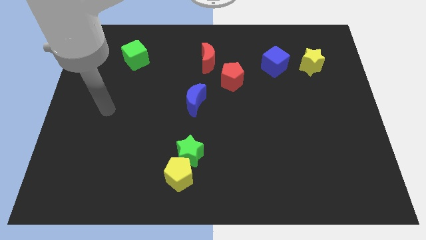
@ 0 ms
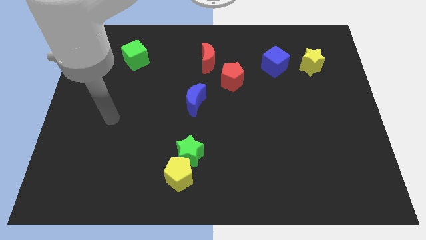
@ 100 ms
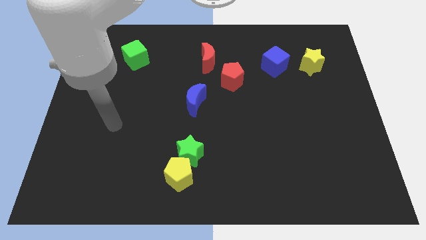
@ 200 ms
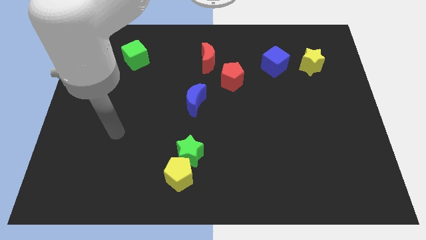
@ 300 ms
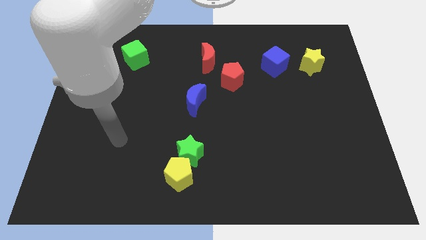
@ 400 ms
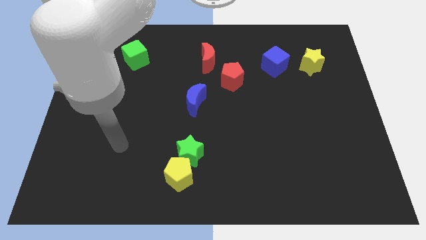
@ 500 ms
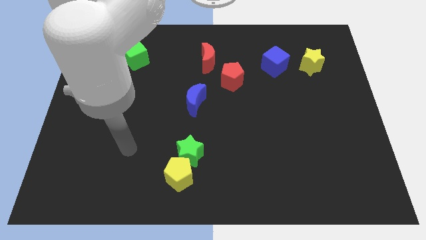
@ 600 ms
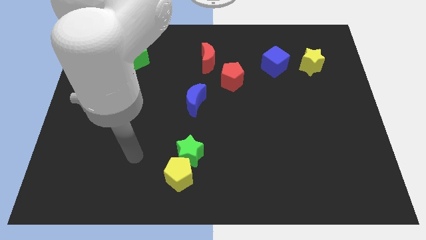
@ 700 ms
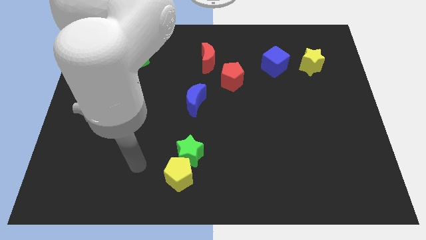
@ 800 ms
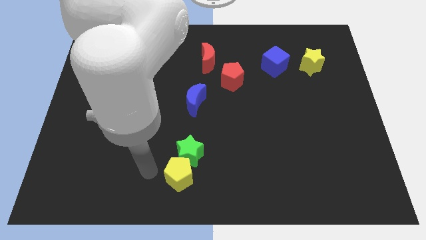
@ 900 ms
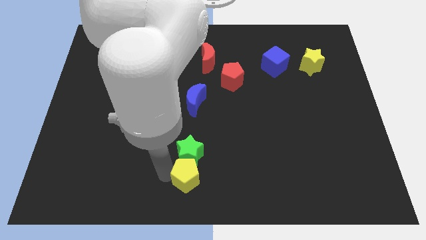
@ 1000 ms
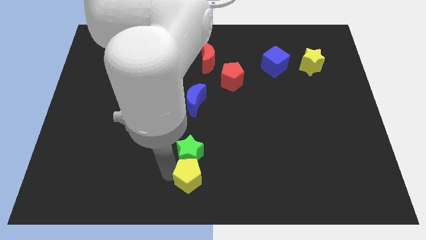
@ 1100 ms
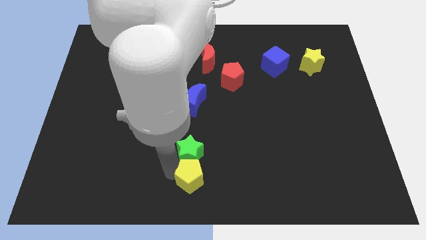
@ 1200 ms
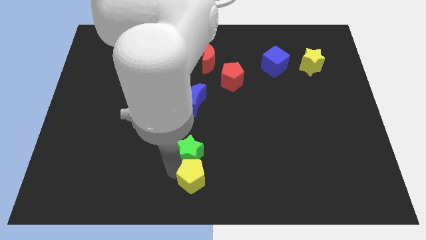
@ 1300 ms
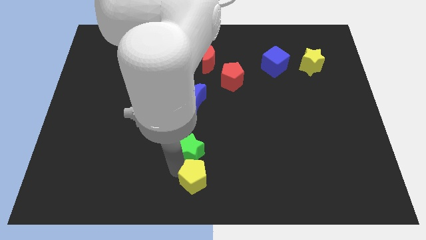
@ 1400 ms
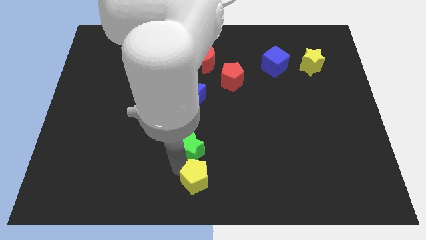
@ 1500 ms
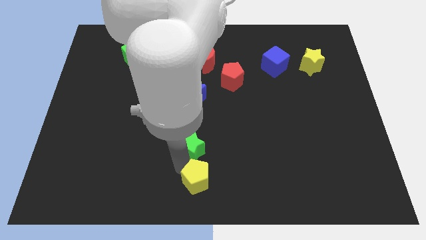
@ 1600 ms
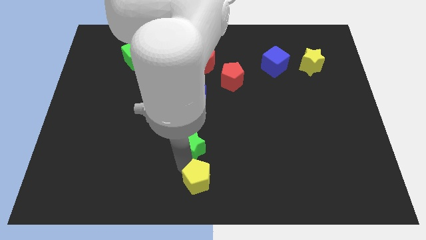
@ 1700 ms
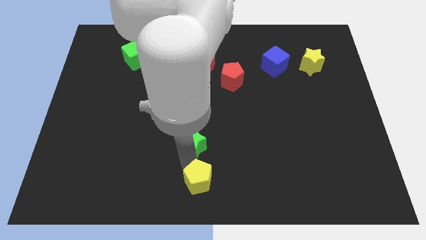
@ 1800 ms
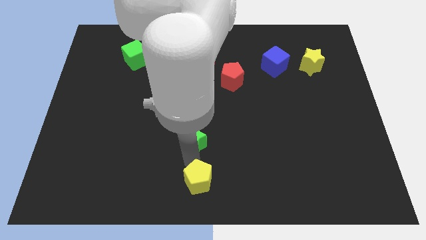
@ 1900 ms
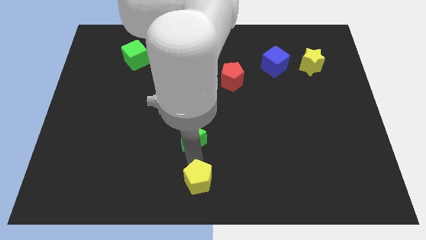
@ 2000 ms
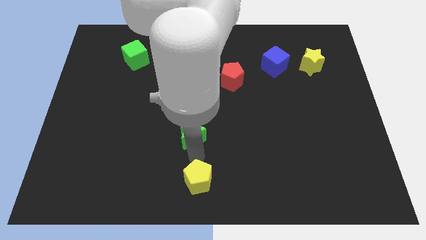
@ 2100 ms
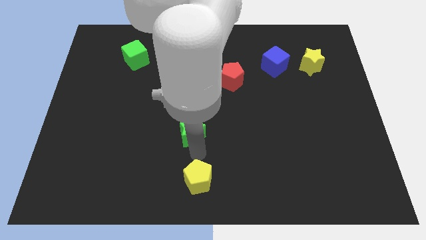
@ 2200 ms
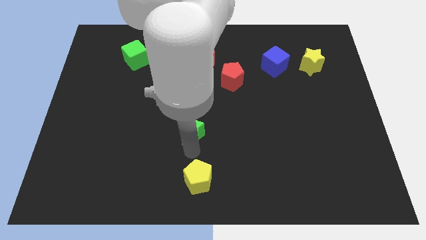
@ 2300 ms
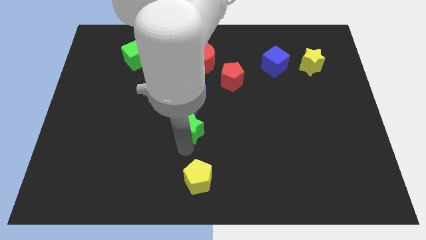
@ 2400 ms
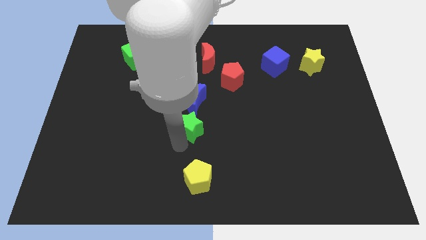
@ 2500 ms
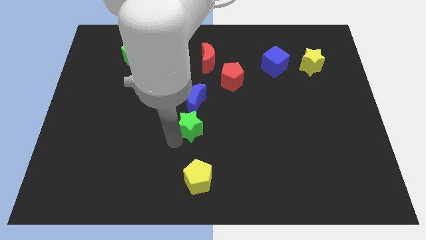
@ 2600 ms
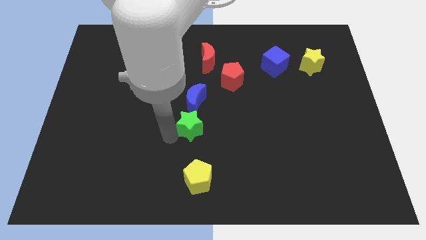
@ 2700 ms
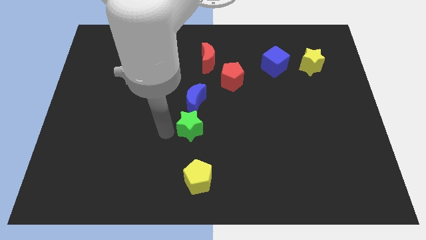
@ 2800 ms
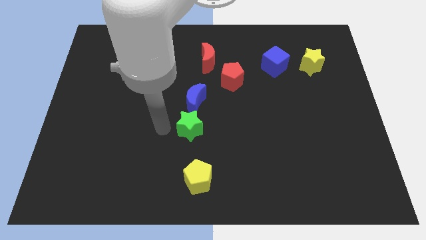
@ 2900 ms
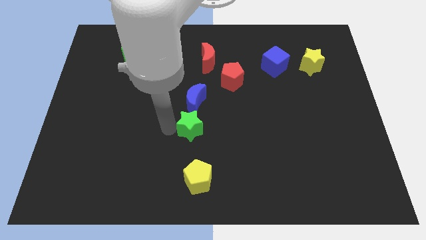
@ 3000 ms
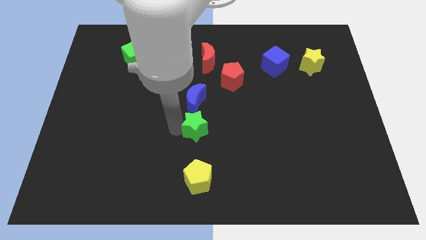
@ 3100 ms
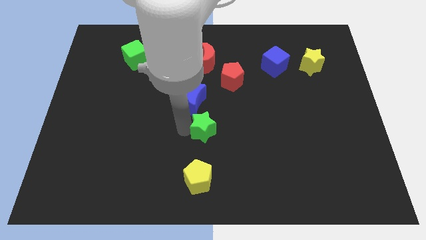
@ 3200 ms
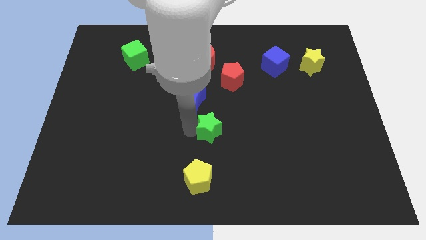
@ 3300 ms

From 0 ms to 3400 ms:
slightly slide the green star upwards and then to the right

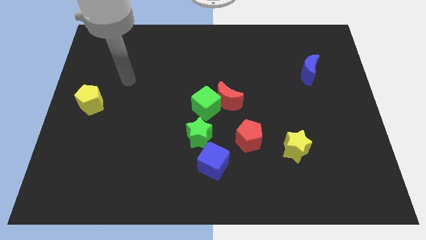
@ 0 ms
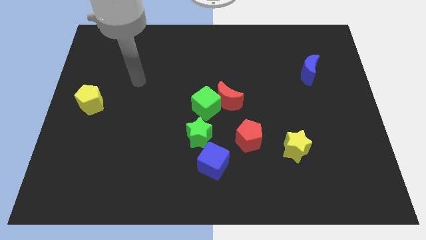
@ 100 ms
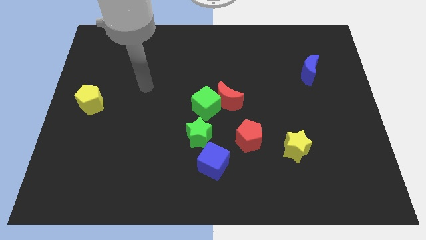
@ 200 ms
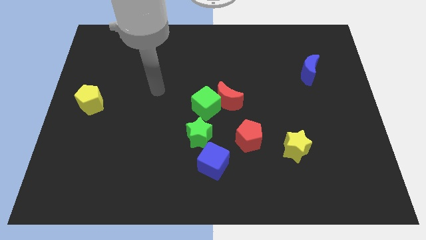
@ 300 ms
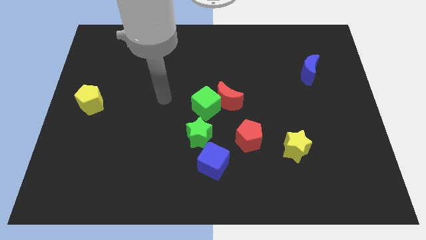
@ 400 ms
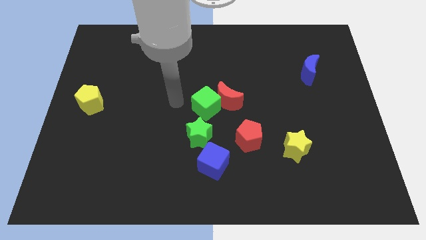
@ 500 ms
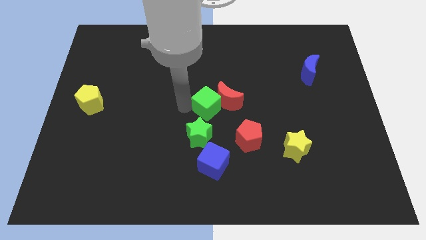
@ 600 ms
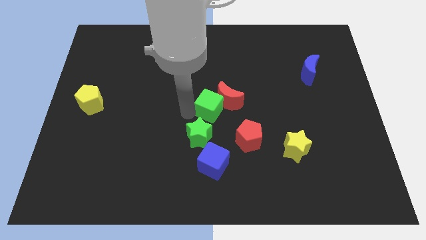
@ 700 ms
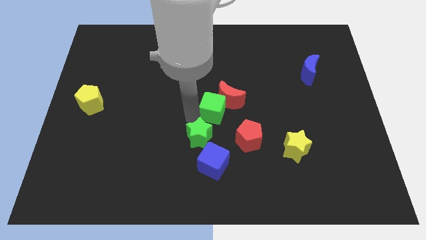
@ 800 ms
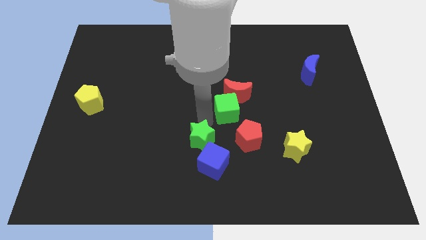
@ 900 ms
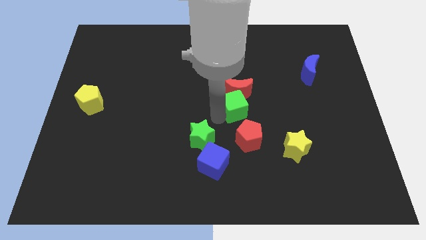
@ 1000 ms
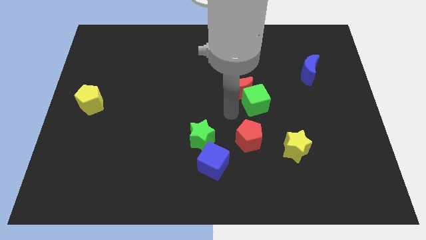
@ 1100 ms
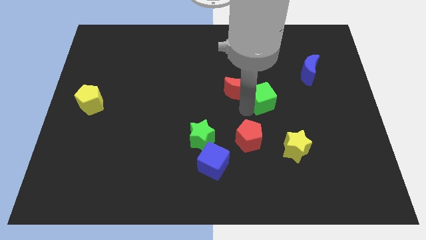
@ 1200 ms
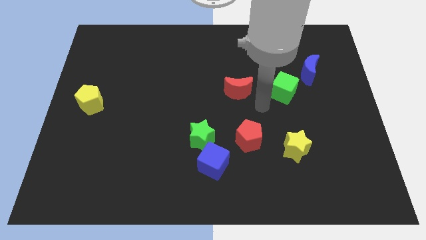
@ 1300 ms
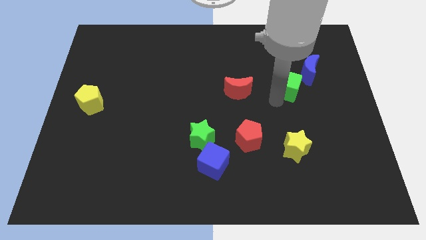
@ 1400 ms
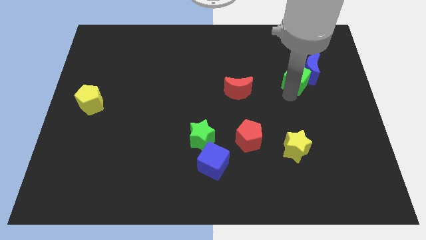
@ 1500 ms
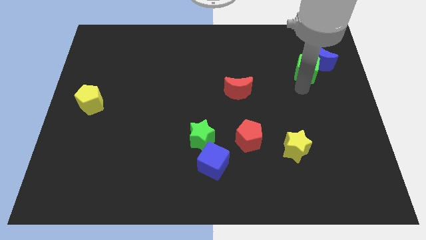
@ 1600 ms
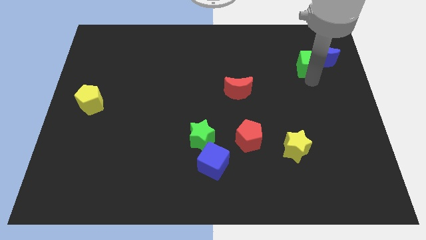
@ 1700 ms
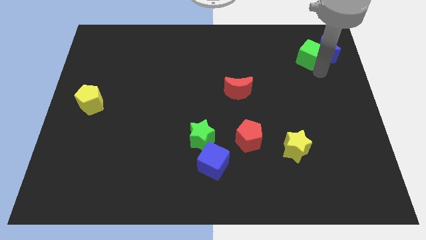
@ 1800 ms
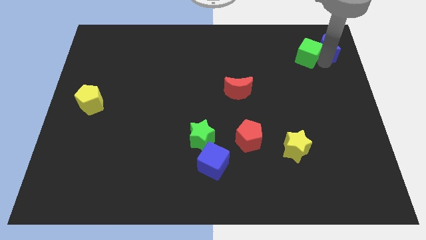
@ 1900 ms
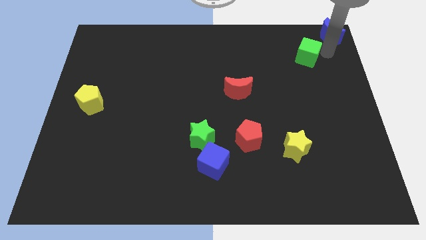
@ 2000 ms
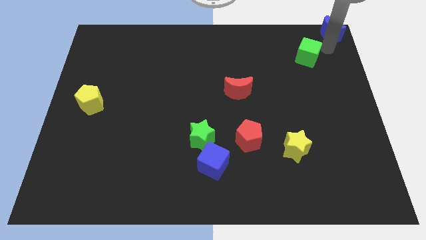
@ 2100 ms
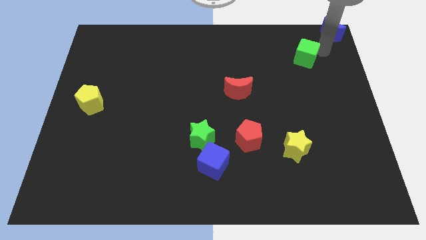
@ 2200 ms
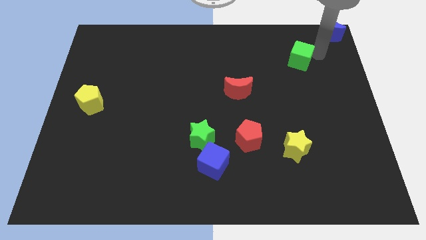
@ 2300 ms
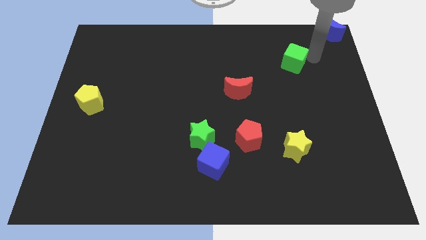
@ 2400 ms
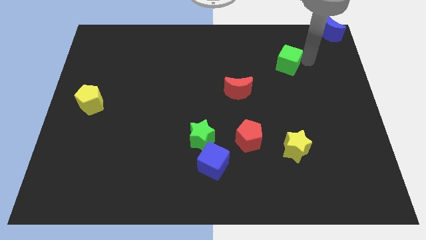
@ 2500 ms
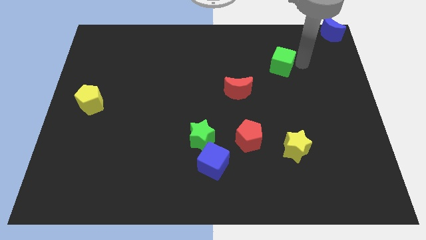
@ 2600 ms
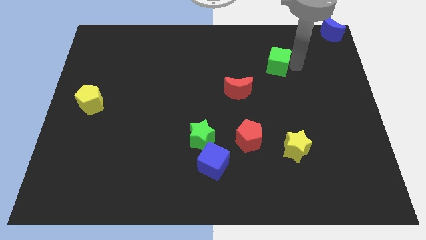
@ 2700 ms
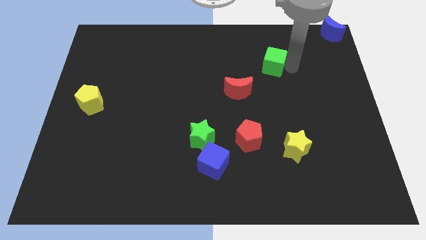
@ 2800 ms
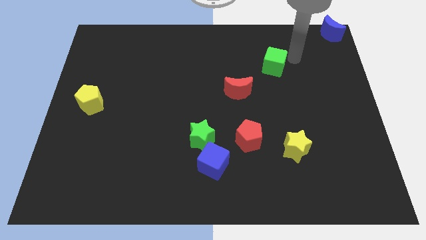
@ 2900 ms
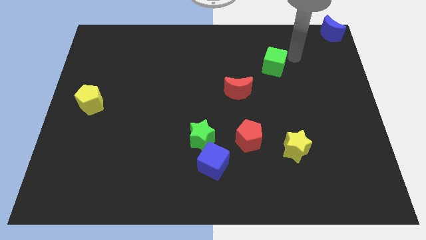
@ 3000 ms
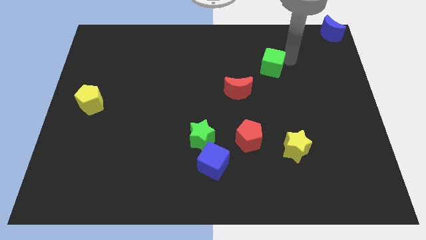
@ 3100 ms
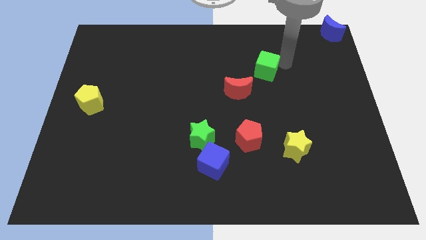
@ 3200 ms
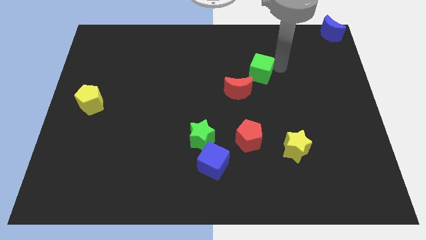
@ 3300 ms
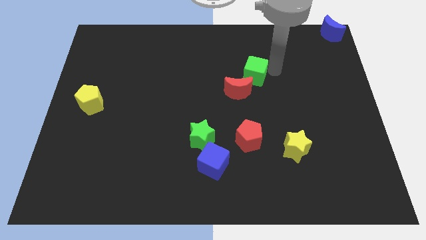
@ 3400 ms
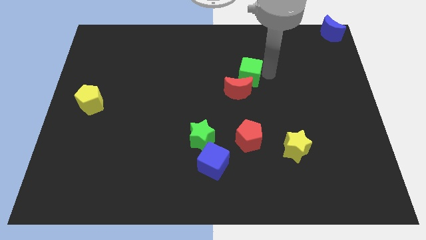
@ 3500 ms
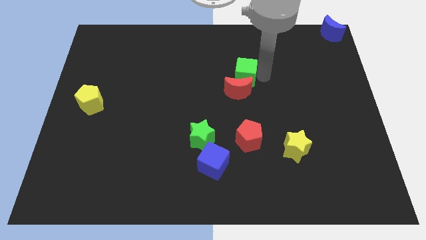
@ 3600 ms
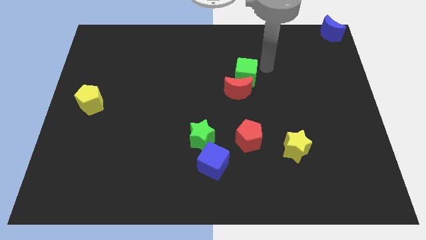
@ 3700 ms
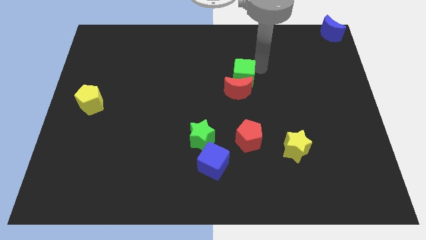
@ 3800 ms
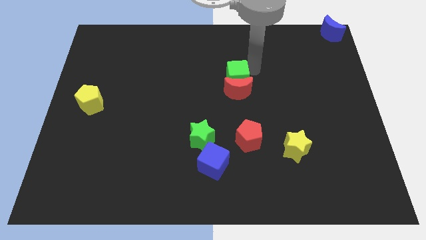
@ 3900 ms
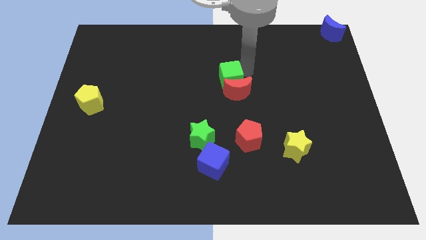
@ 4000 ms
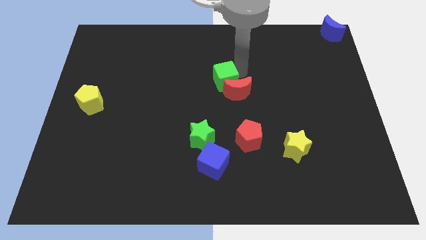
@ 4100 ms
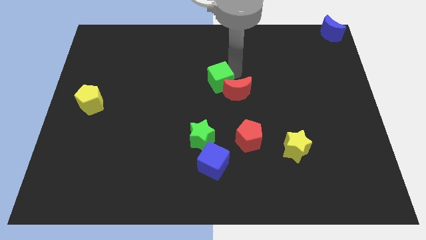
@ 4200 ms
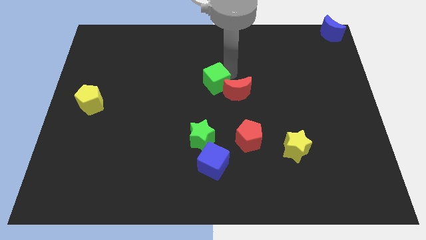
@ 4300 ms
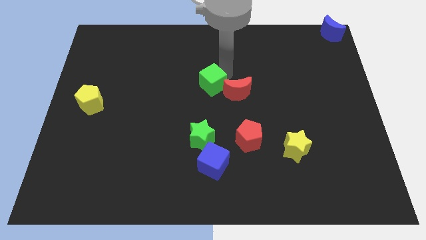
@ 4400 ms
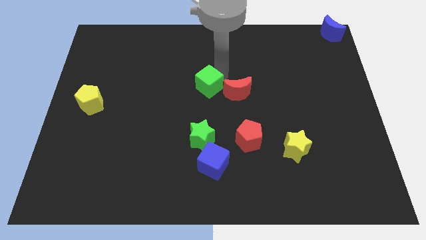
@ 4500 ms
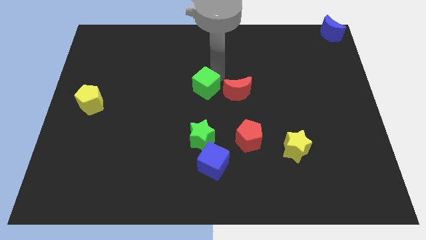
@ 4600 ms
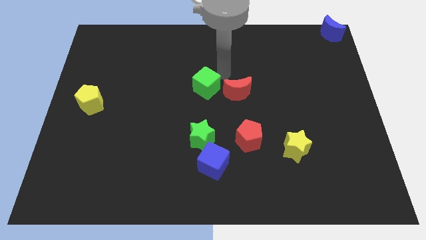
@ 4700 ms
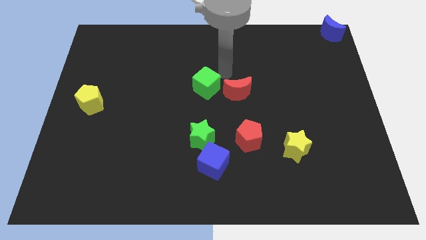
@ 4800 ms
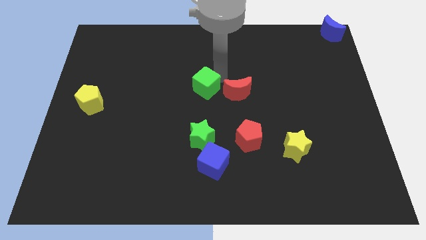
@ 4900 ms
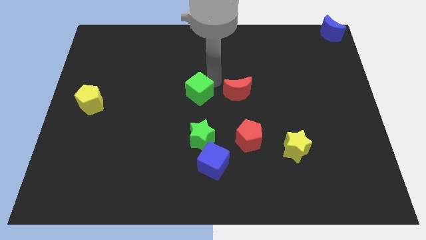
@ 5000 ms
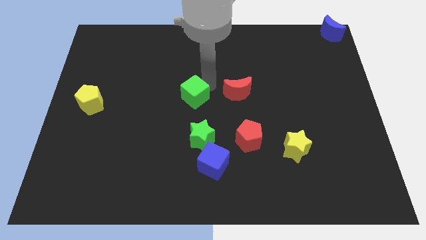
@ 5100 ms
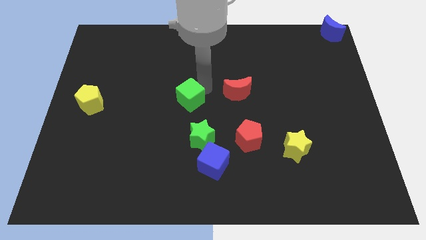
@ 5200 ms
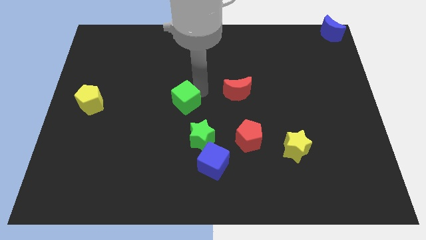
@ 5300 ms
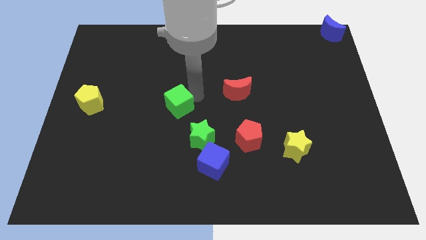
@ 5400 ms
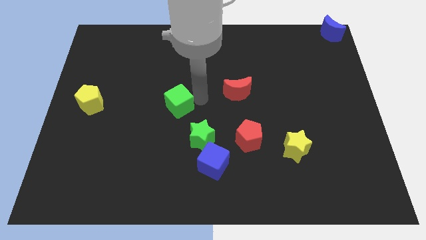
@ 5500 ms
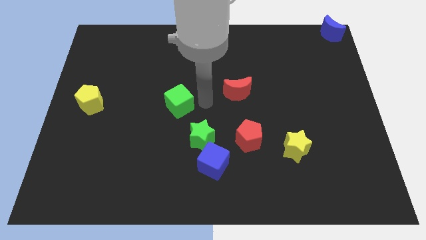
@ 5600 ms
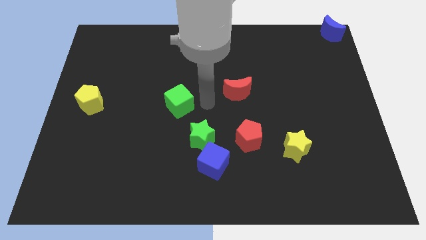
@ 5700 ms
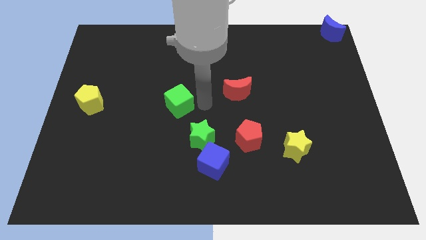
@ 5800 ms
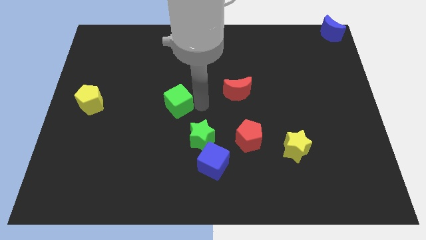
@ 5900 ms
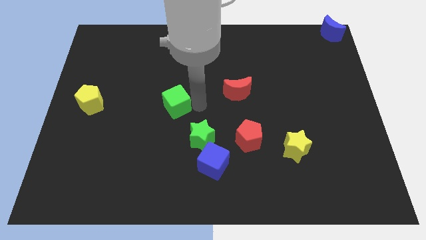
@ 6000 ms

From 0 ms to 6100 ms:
slide the green cube slightly to the left
